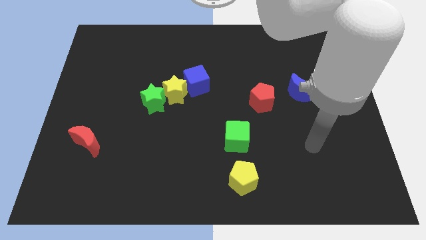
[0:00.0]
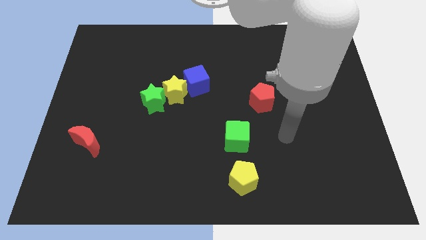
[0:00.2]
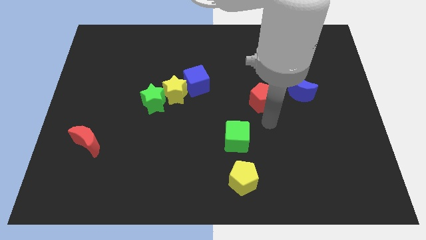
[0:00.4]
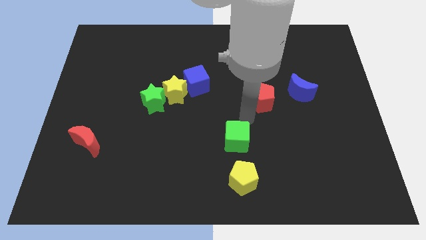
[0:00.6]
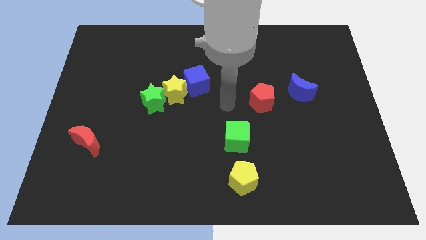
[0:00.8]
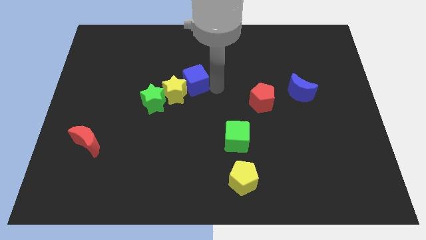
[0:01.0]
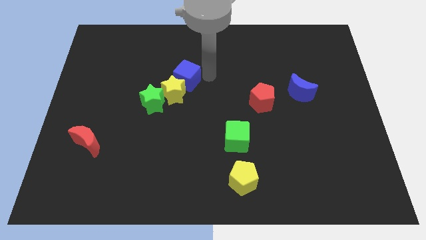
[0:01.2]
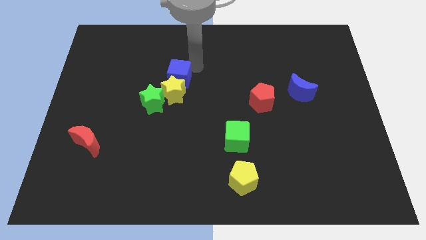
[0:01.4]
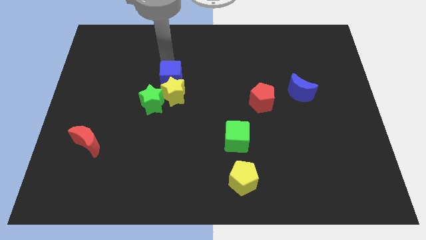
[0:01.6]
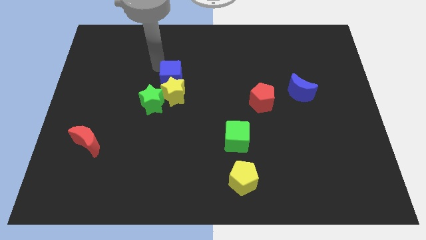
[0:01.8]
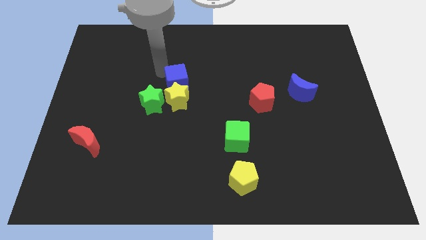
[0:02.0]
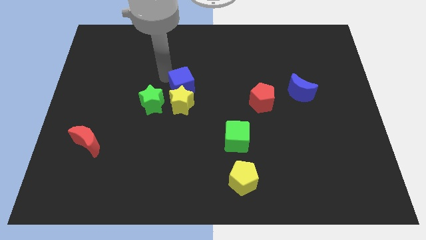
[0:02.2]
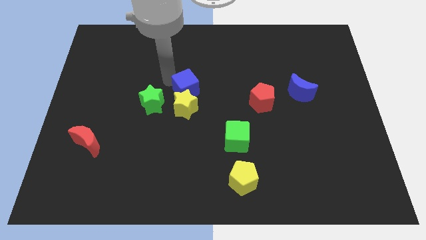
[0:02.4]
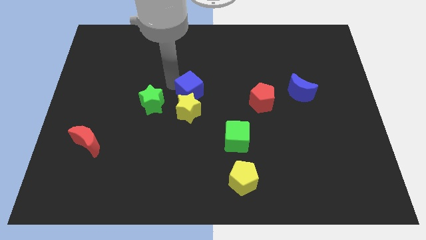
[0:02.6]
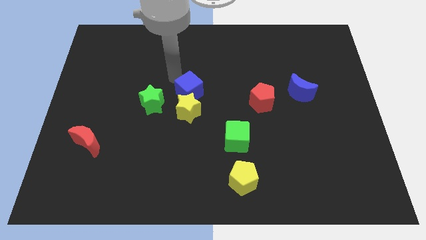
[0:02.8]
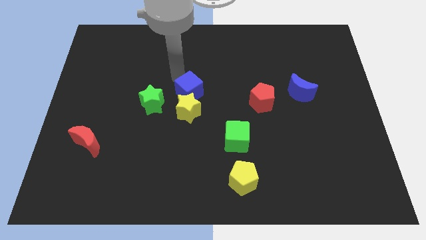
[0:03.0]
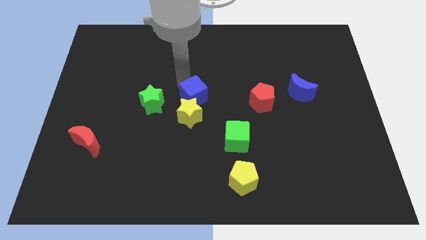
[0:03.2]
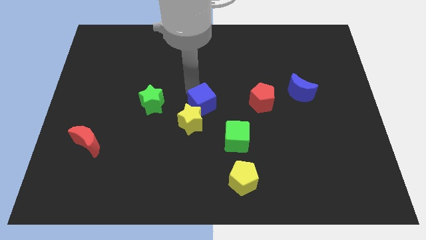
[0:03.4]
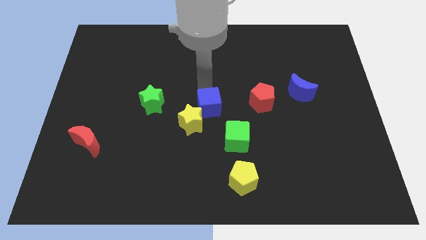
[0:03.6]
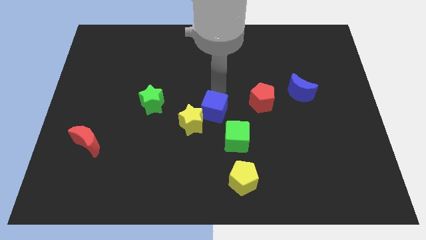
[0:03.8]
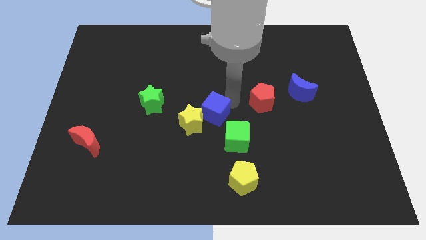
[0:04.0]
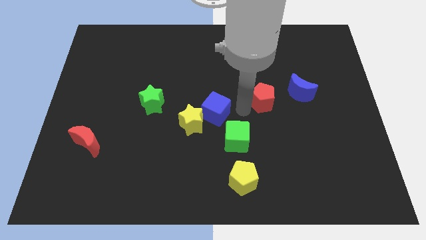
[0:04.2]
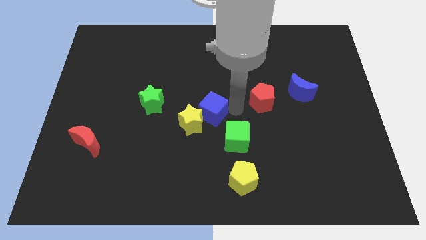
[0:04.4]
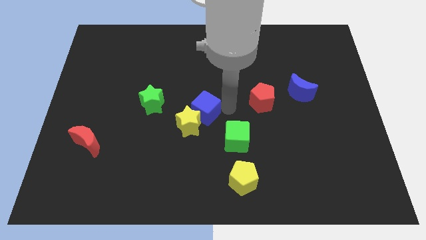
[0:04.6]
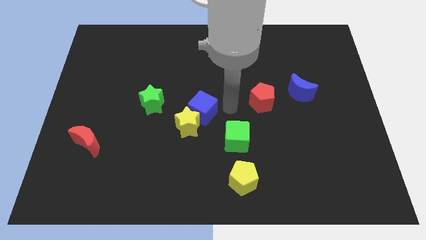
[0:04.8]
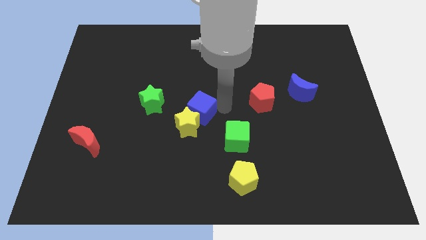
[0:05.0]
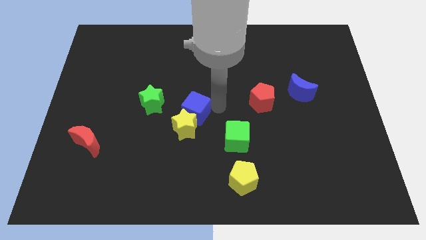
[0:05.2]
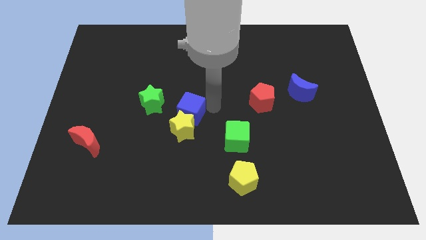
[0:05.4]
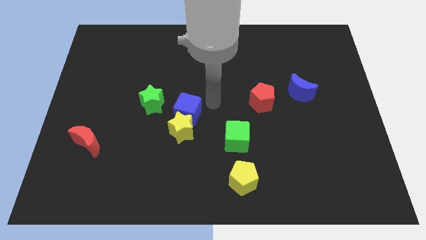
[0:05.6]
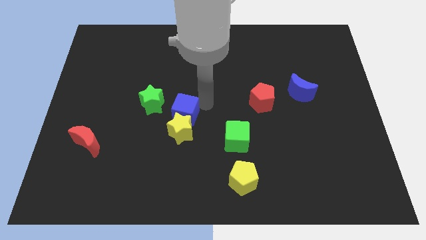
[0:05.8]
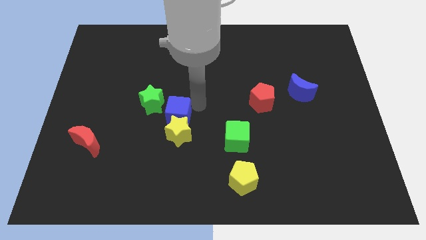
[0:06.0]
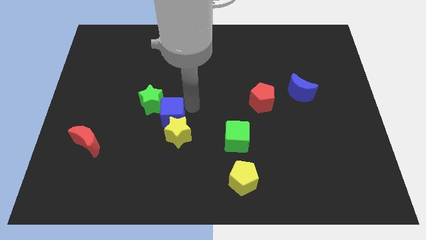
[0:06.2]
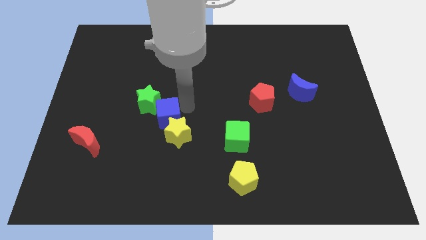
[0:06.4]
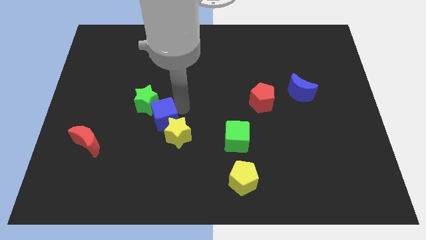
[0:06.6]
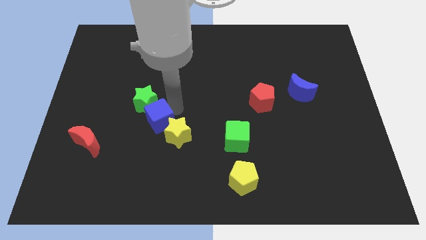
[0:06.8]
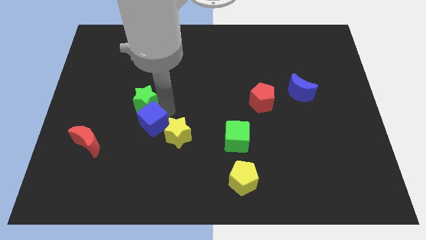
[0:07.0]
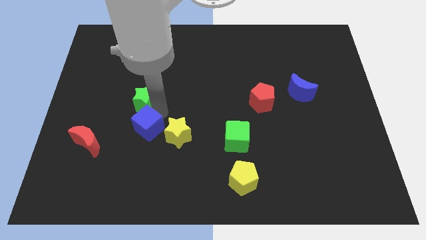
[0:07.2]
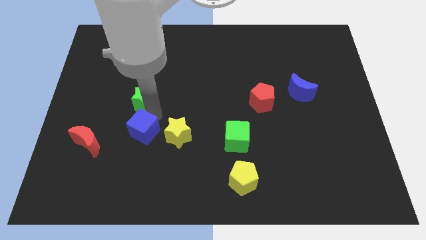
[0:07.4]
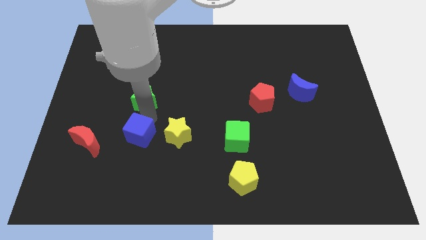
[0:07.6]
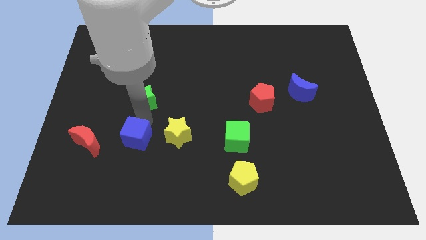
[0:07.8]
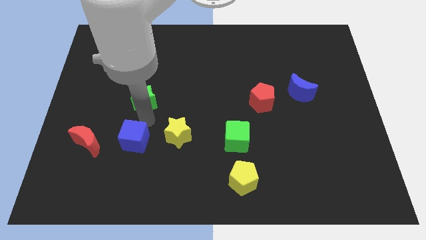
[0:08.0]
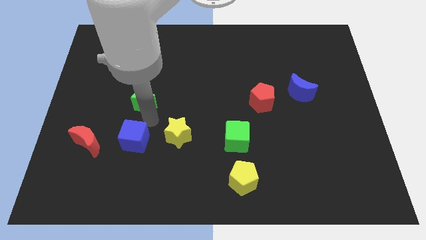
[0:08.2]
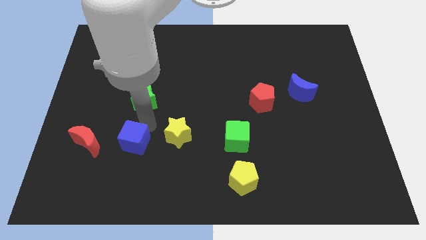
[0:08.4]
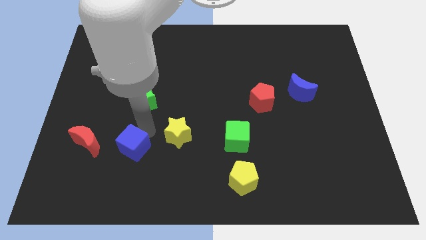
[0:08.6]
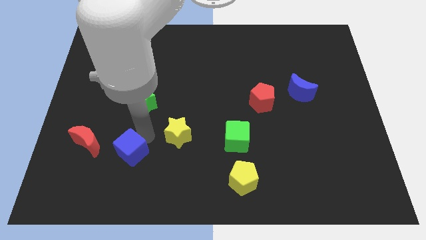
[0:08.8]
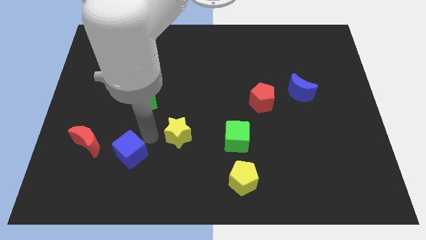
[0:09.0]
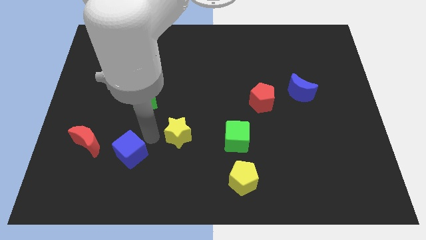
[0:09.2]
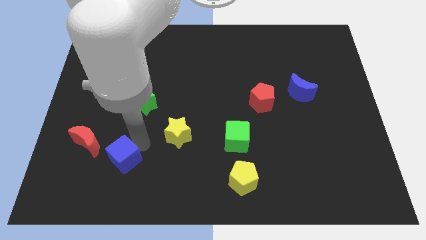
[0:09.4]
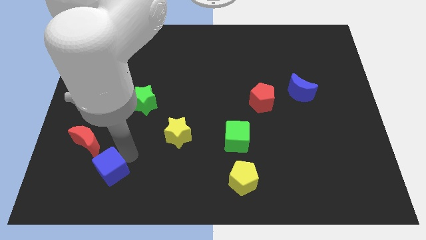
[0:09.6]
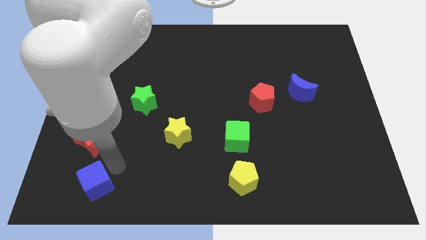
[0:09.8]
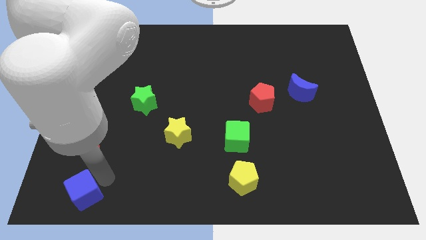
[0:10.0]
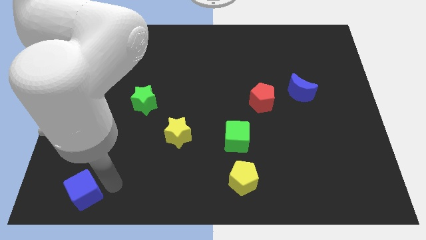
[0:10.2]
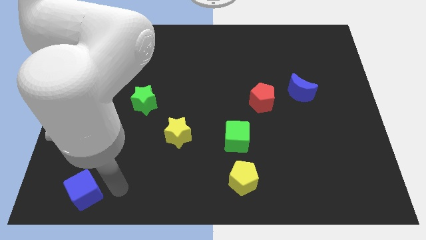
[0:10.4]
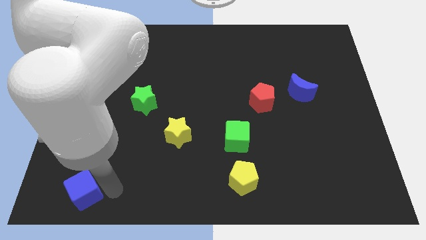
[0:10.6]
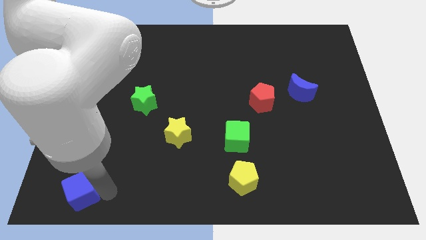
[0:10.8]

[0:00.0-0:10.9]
put the blue cube to the lower left corner

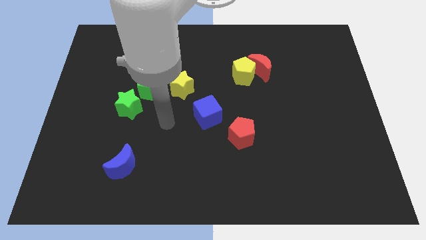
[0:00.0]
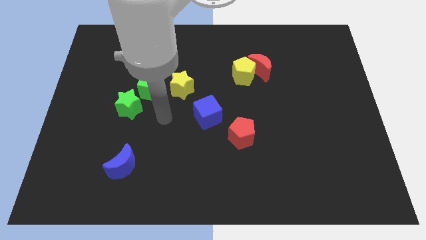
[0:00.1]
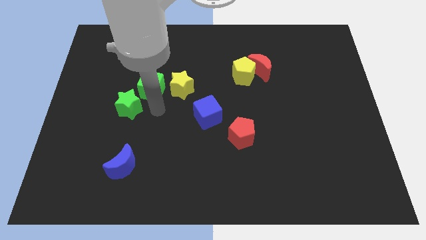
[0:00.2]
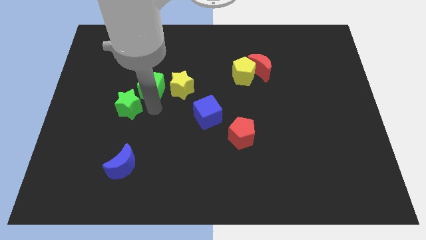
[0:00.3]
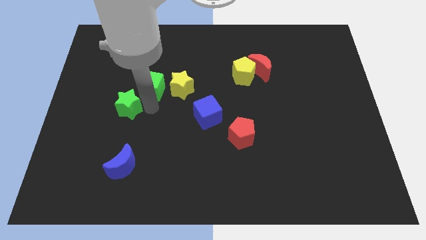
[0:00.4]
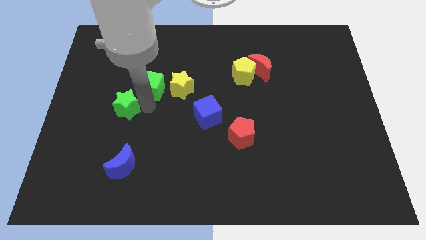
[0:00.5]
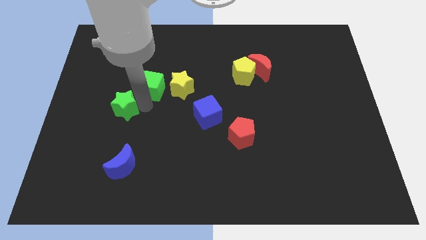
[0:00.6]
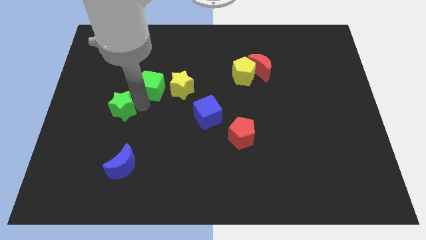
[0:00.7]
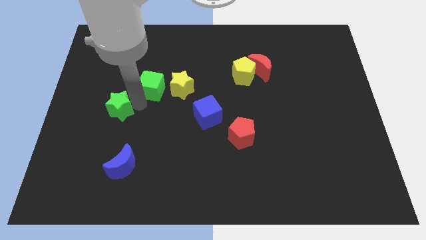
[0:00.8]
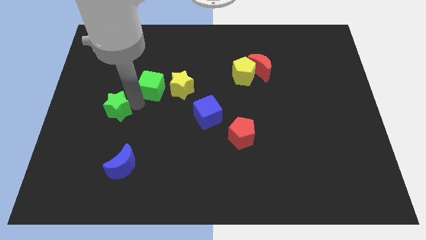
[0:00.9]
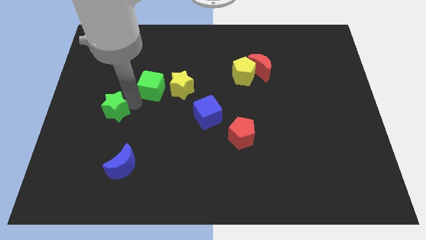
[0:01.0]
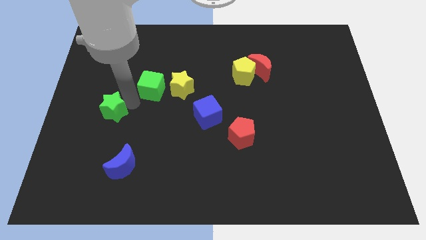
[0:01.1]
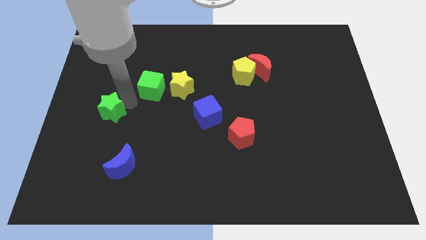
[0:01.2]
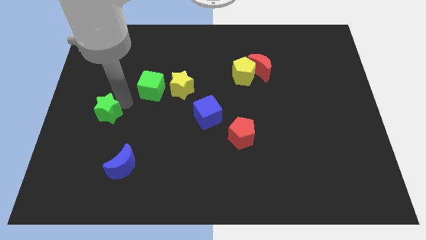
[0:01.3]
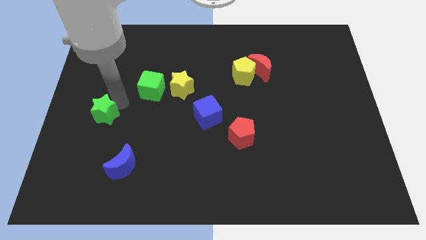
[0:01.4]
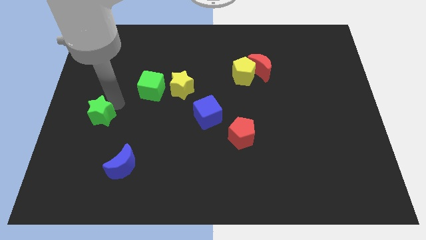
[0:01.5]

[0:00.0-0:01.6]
move the green star to the left side
